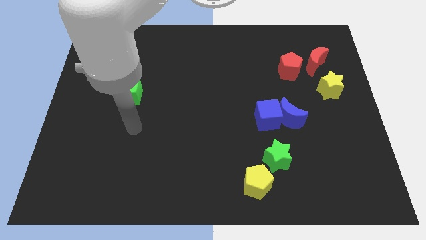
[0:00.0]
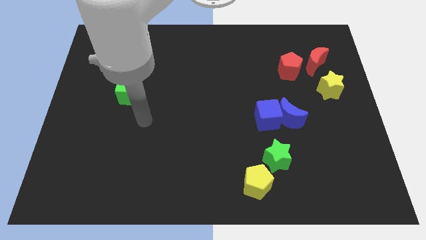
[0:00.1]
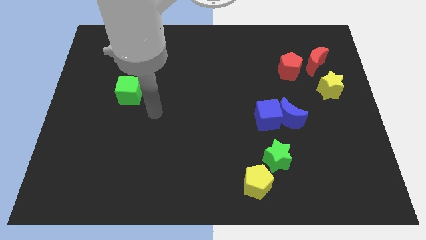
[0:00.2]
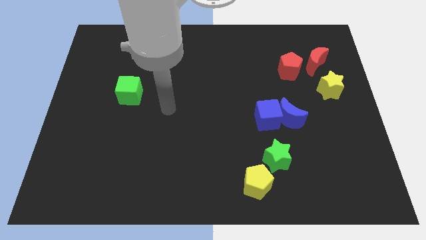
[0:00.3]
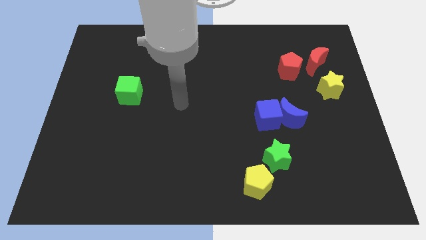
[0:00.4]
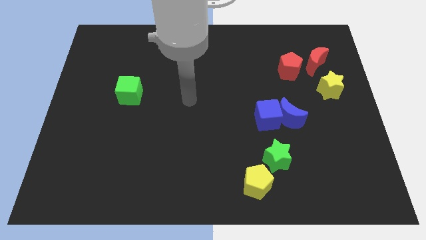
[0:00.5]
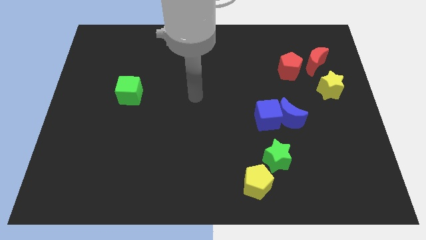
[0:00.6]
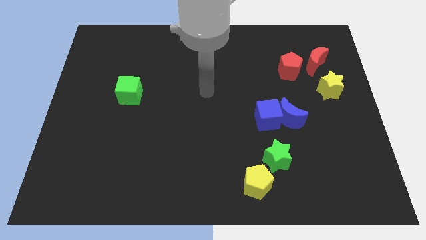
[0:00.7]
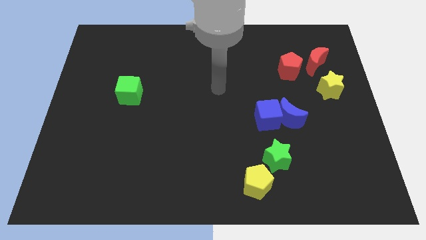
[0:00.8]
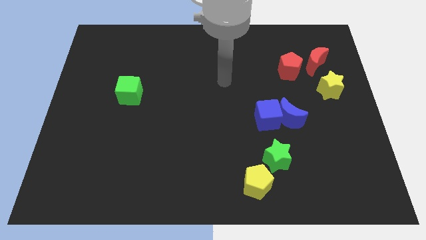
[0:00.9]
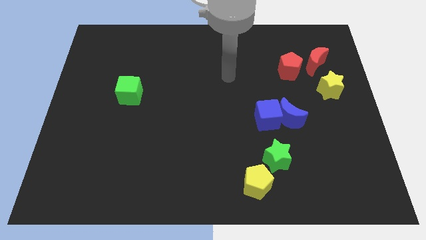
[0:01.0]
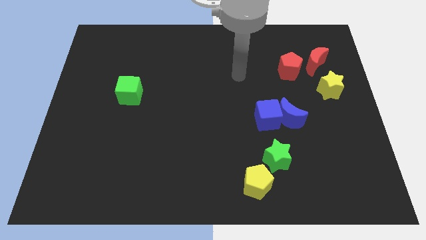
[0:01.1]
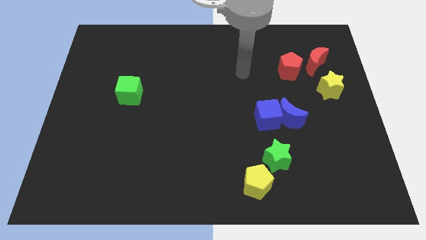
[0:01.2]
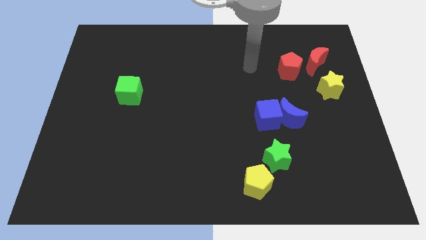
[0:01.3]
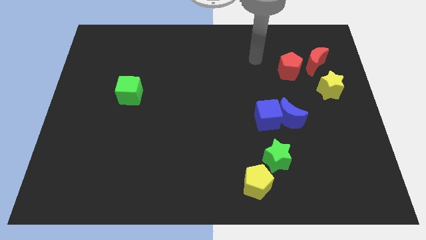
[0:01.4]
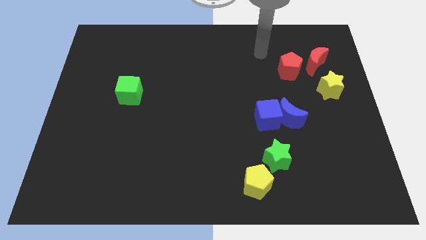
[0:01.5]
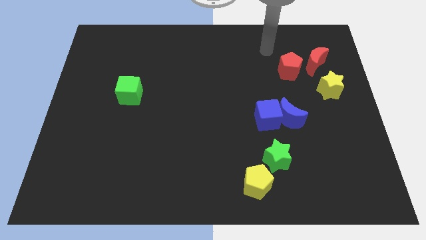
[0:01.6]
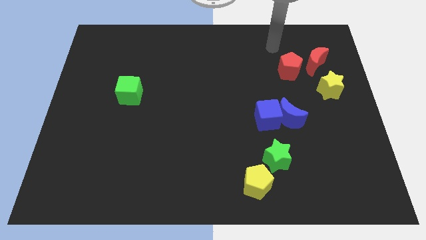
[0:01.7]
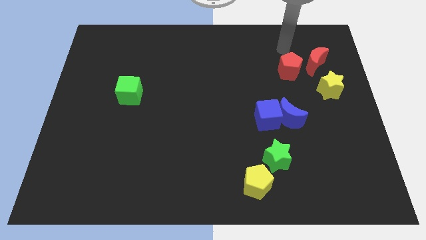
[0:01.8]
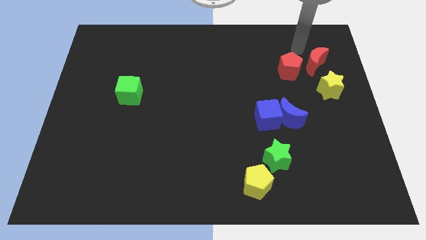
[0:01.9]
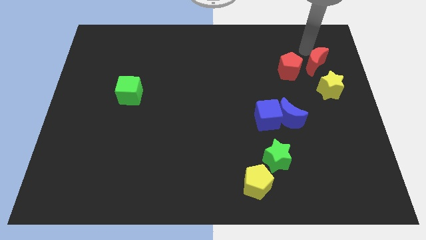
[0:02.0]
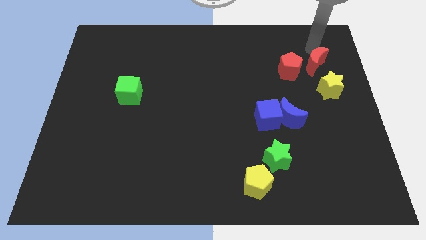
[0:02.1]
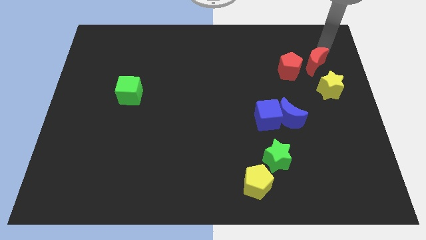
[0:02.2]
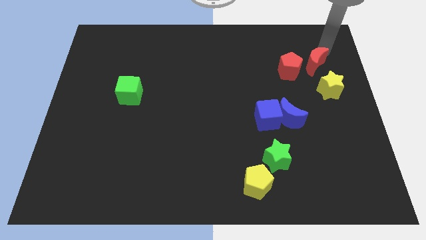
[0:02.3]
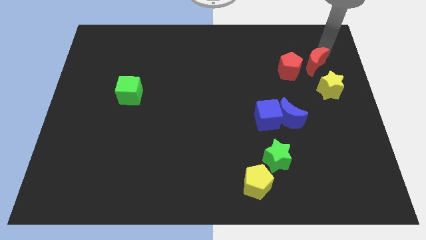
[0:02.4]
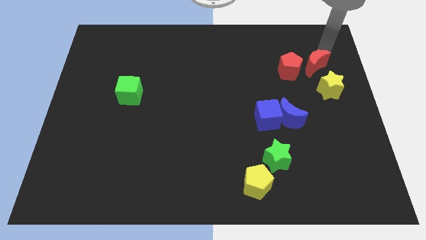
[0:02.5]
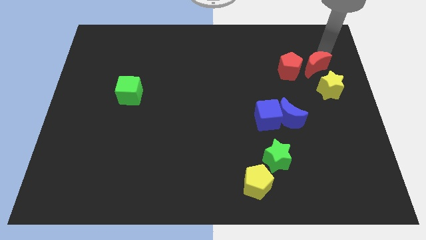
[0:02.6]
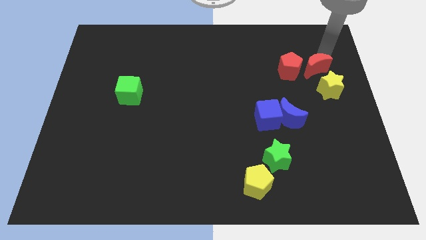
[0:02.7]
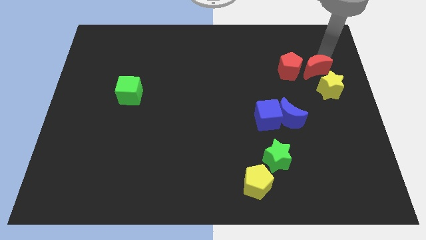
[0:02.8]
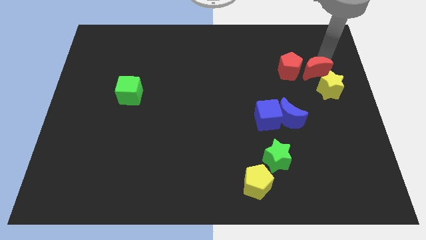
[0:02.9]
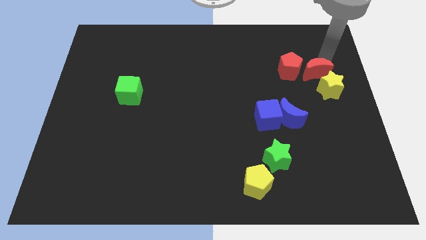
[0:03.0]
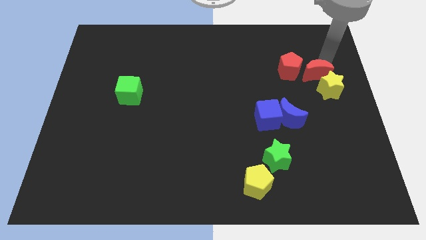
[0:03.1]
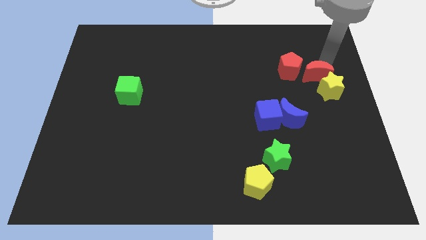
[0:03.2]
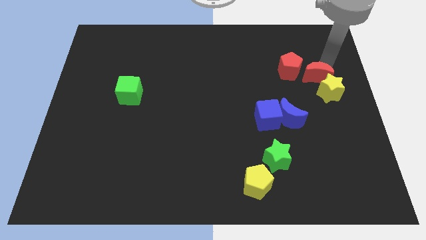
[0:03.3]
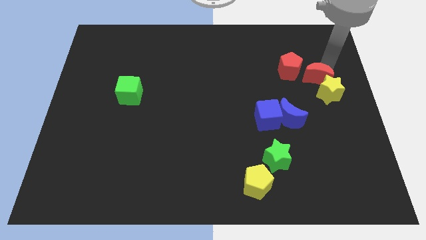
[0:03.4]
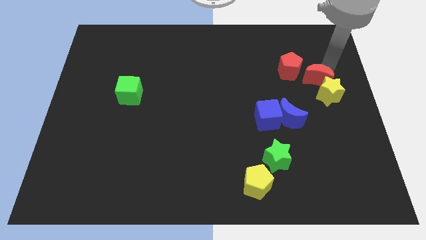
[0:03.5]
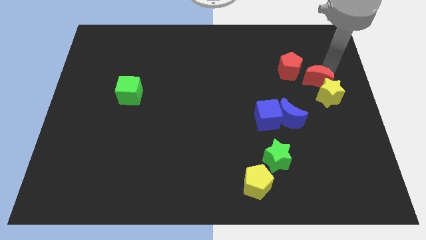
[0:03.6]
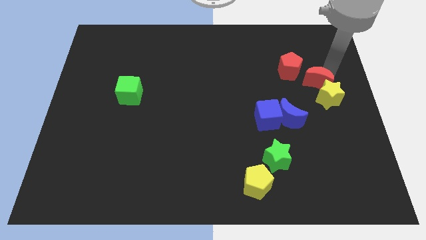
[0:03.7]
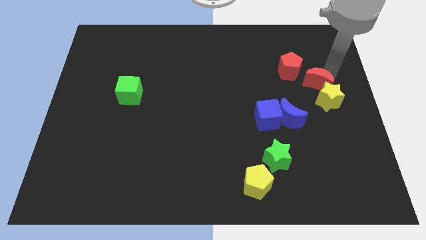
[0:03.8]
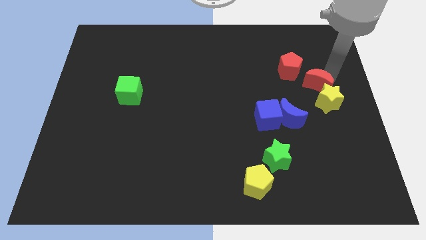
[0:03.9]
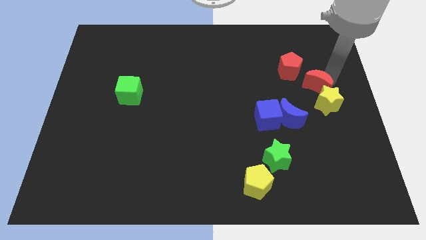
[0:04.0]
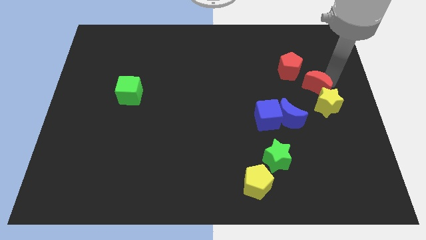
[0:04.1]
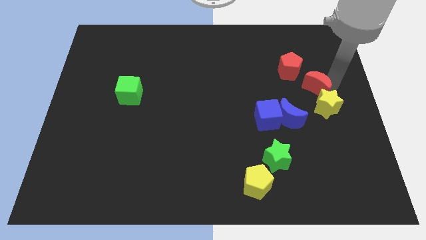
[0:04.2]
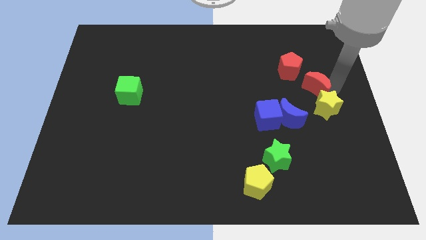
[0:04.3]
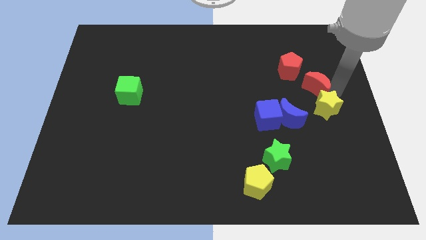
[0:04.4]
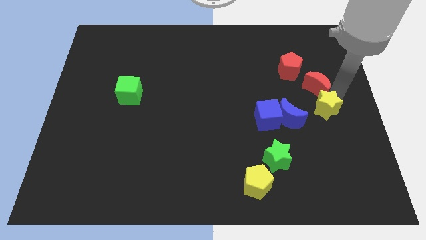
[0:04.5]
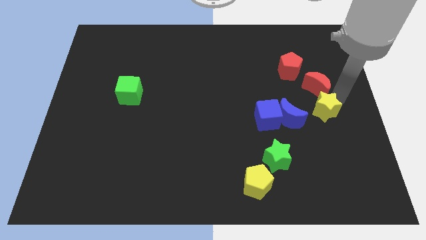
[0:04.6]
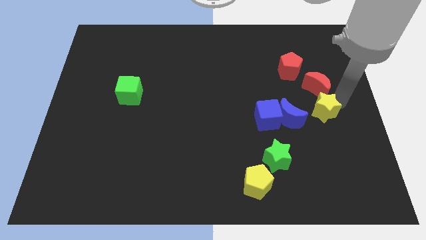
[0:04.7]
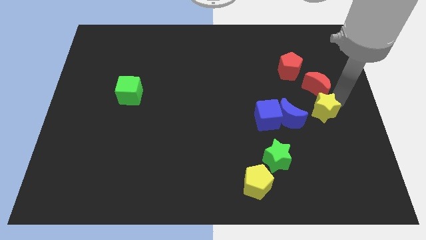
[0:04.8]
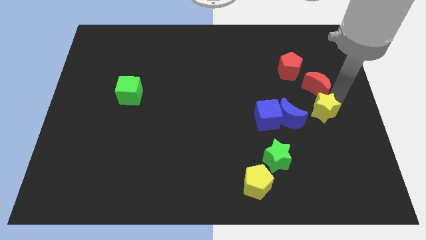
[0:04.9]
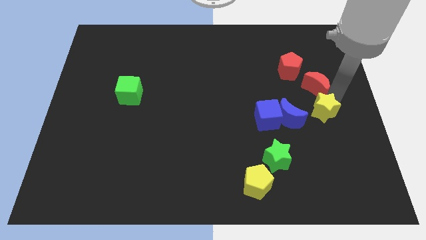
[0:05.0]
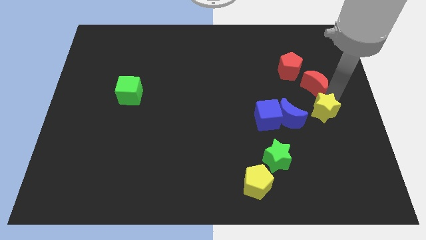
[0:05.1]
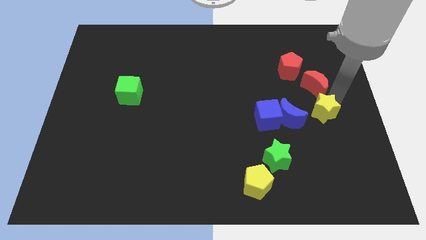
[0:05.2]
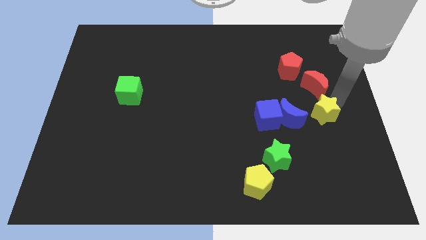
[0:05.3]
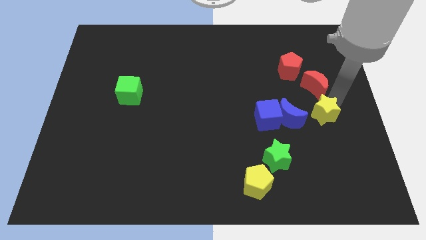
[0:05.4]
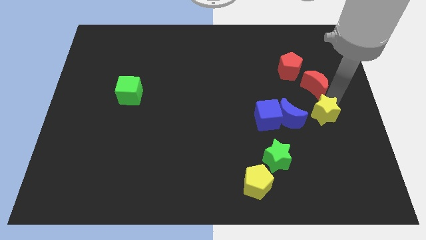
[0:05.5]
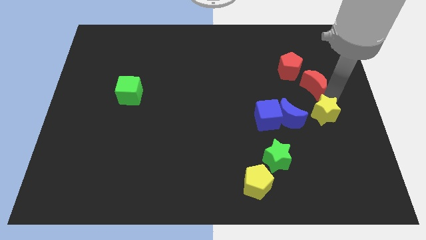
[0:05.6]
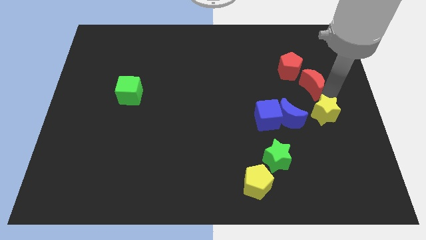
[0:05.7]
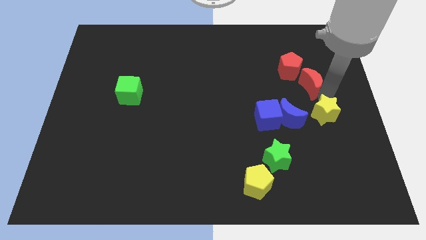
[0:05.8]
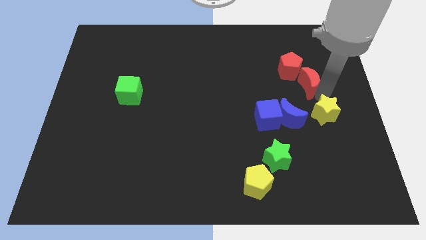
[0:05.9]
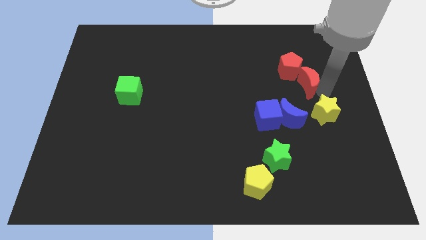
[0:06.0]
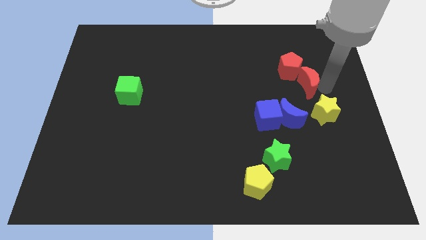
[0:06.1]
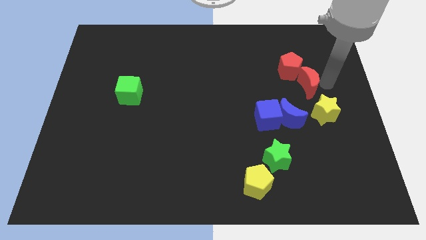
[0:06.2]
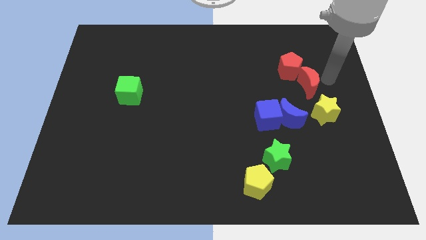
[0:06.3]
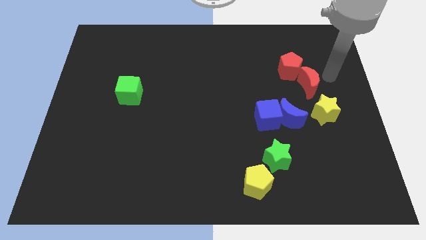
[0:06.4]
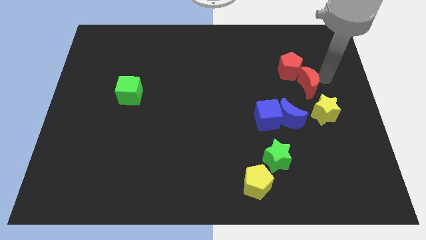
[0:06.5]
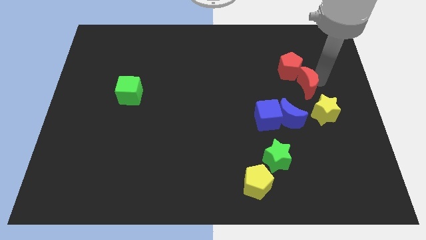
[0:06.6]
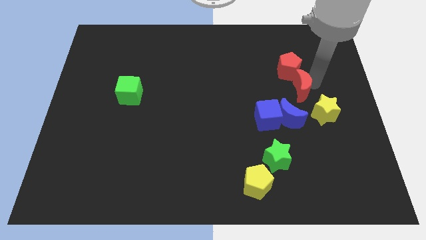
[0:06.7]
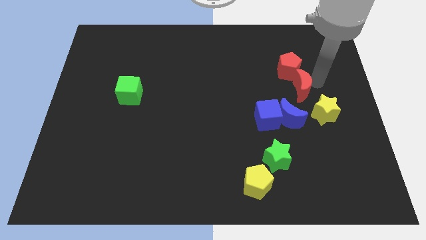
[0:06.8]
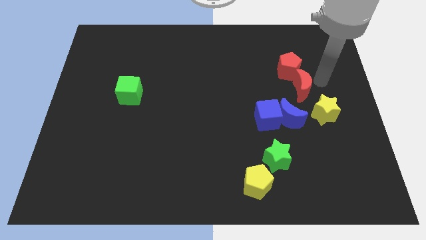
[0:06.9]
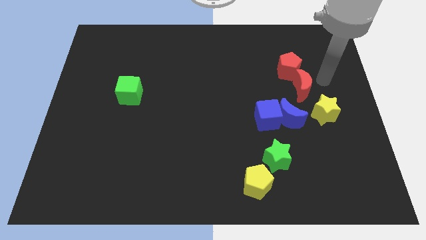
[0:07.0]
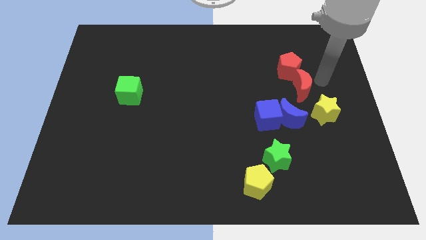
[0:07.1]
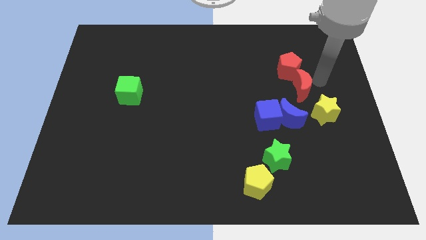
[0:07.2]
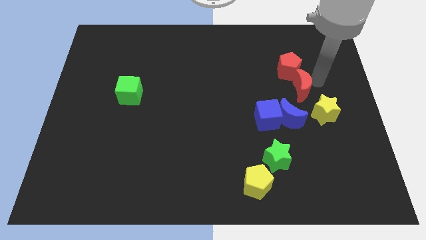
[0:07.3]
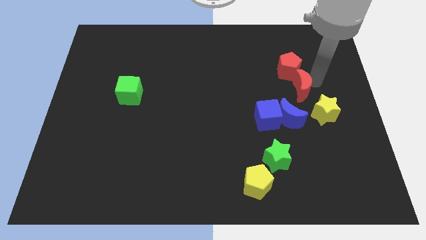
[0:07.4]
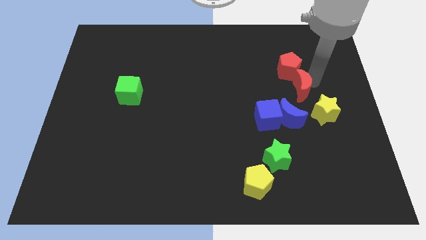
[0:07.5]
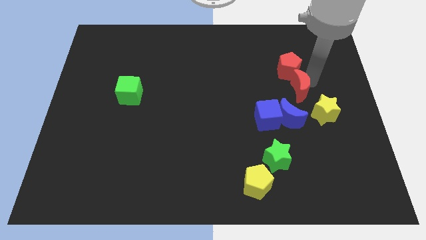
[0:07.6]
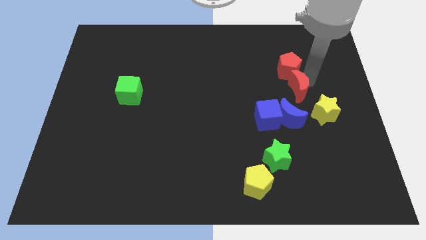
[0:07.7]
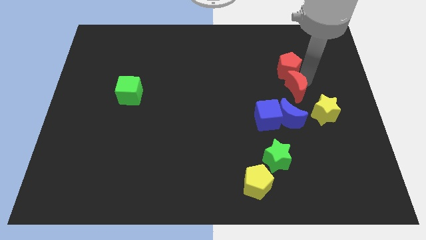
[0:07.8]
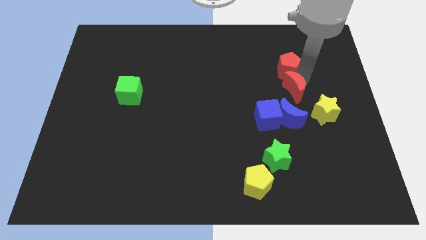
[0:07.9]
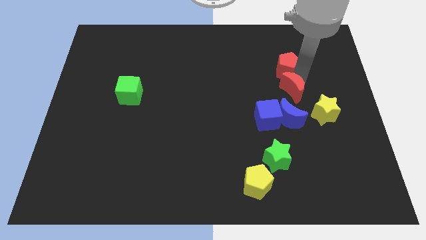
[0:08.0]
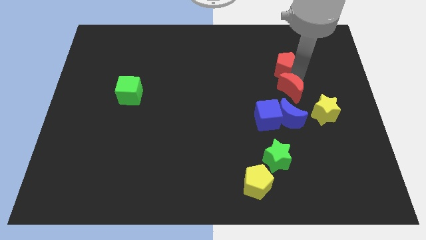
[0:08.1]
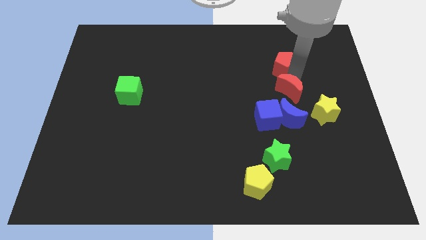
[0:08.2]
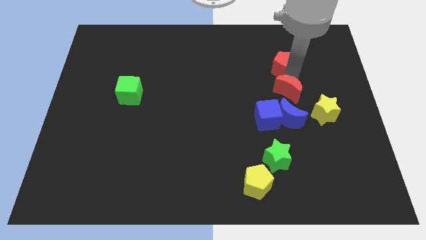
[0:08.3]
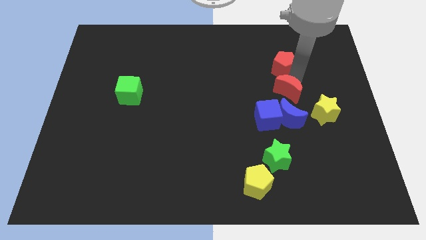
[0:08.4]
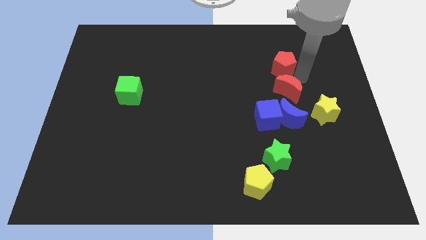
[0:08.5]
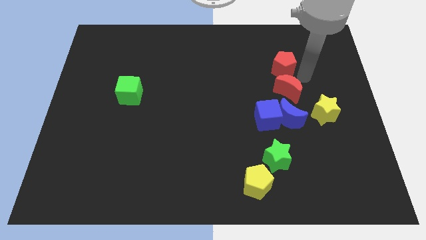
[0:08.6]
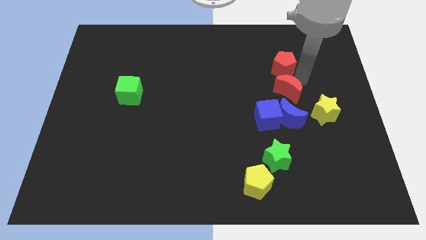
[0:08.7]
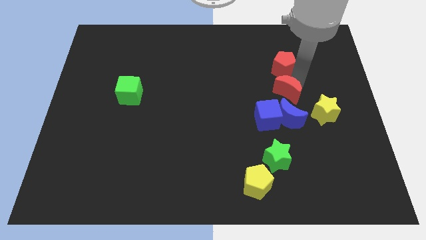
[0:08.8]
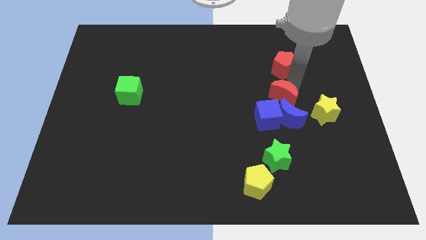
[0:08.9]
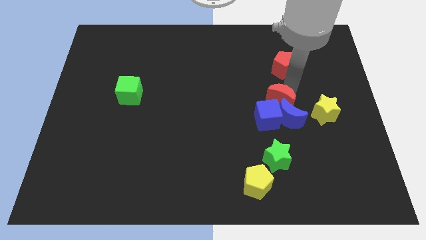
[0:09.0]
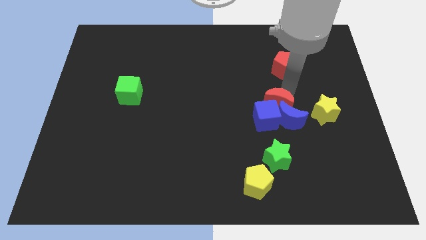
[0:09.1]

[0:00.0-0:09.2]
slide the red moon to the blue cube
